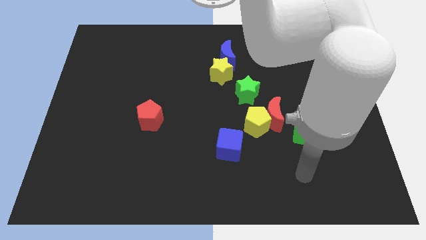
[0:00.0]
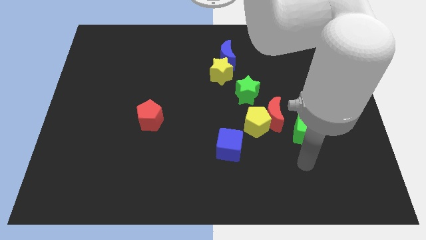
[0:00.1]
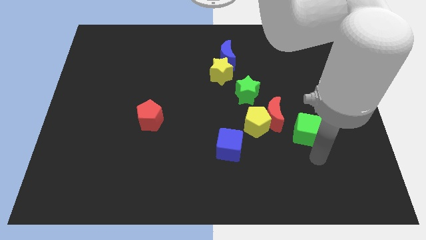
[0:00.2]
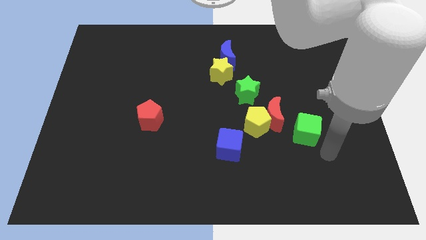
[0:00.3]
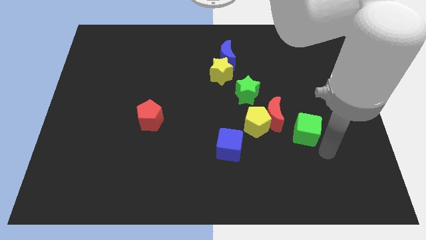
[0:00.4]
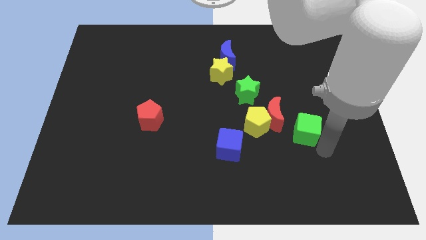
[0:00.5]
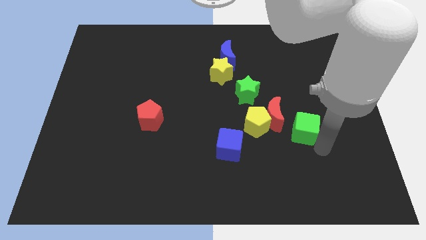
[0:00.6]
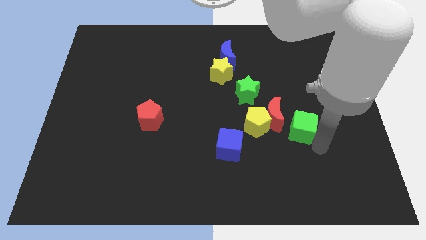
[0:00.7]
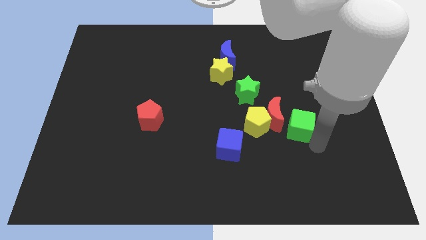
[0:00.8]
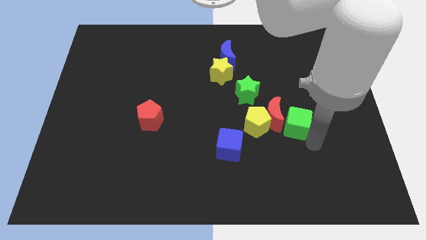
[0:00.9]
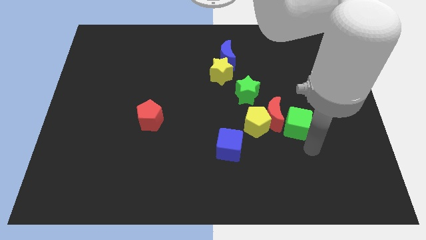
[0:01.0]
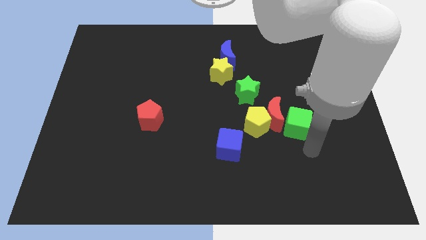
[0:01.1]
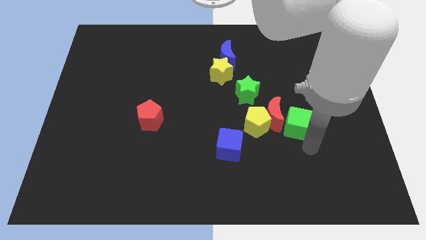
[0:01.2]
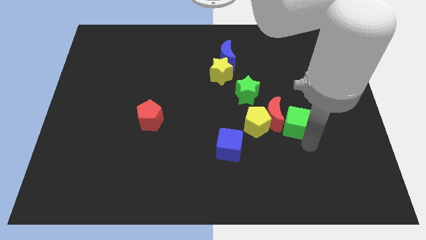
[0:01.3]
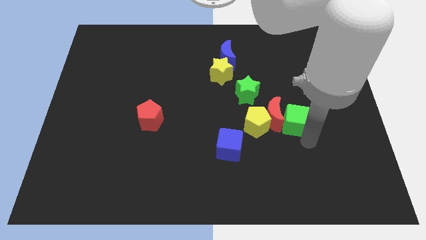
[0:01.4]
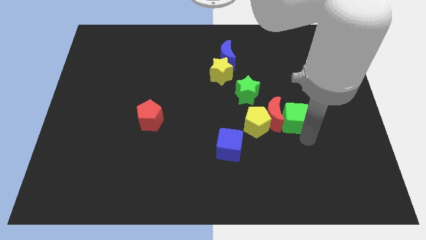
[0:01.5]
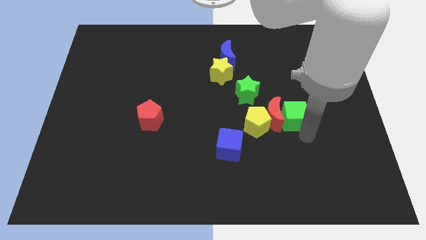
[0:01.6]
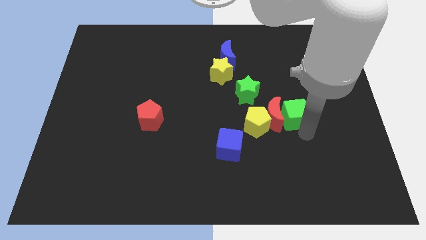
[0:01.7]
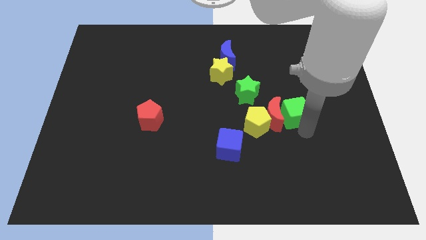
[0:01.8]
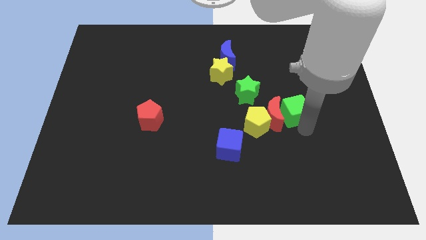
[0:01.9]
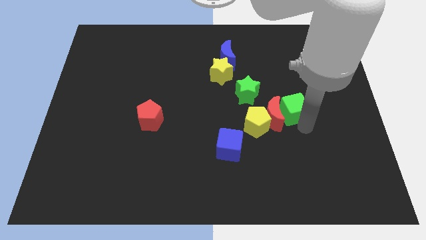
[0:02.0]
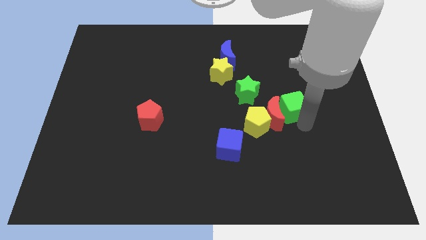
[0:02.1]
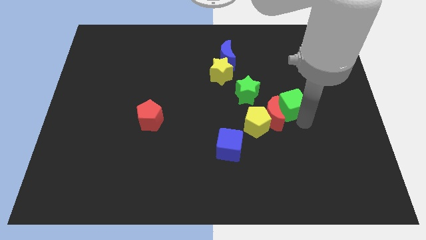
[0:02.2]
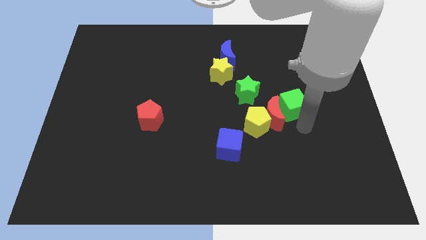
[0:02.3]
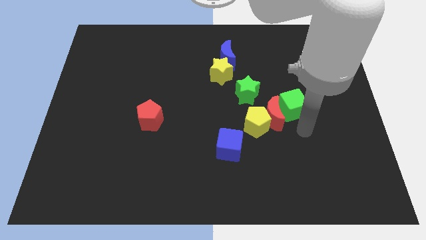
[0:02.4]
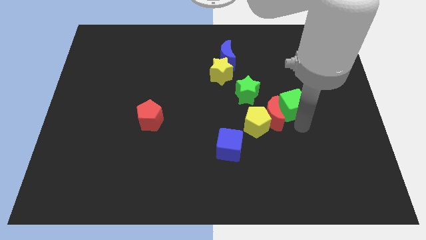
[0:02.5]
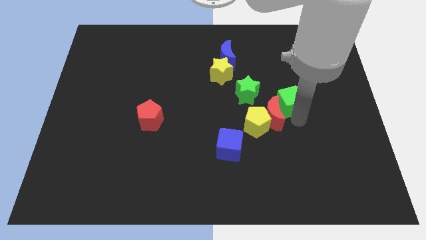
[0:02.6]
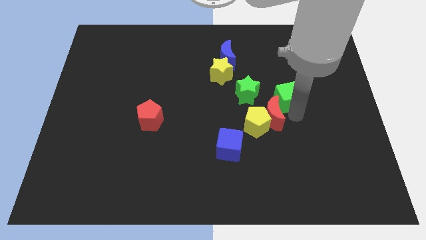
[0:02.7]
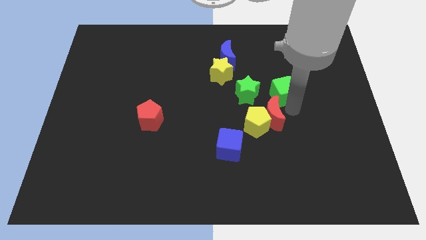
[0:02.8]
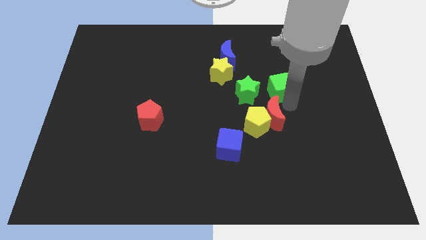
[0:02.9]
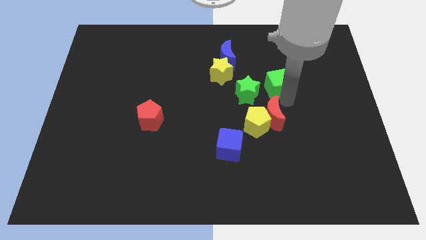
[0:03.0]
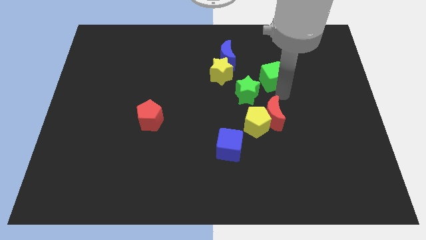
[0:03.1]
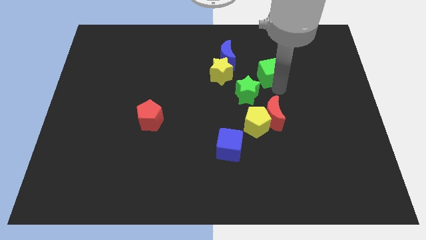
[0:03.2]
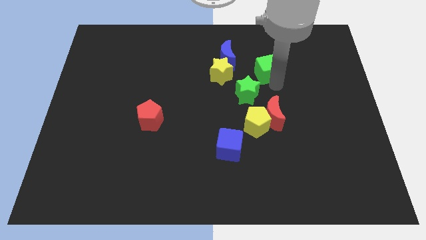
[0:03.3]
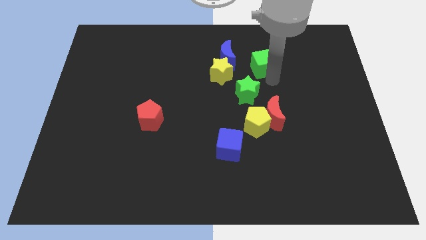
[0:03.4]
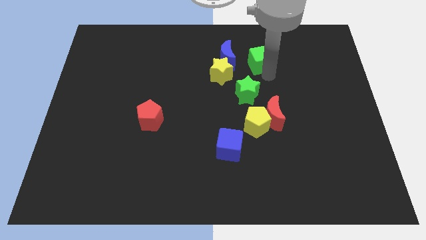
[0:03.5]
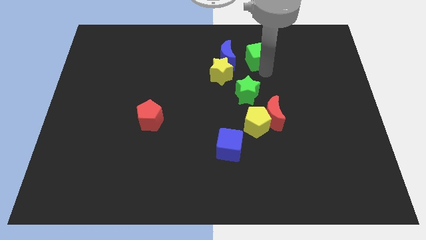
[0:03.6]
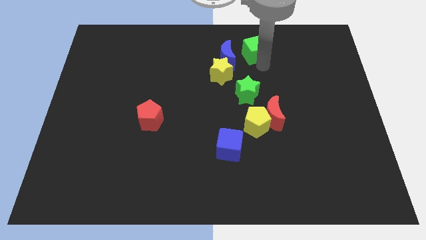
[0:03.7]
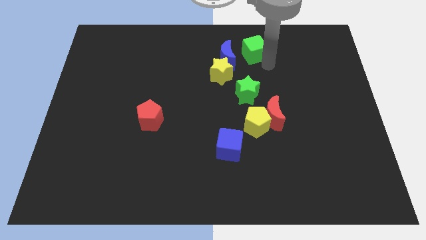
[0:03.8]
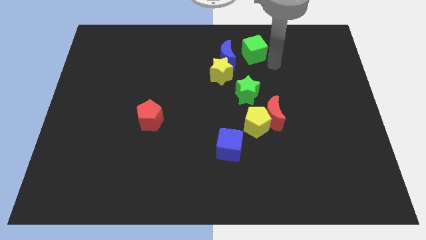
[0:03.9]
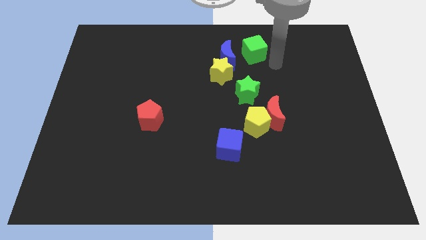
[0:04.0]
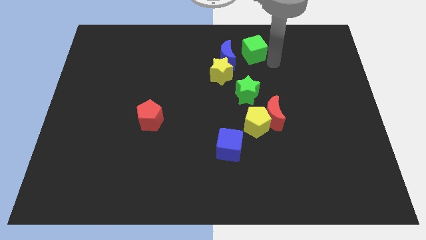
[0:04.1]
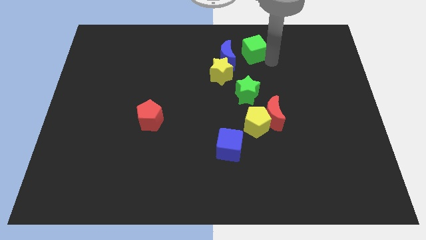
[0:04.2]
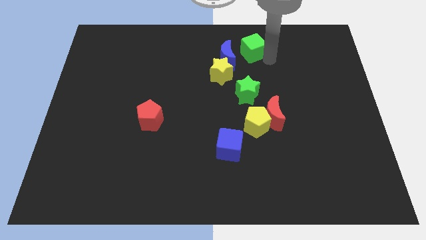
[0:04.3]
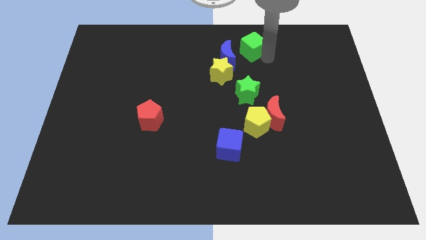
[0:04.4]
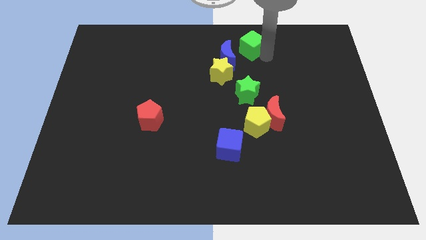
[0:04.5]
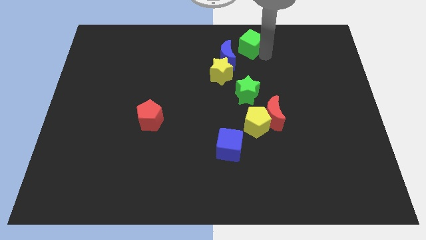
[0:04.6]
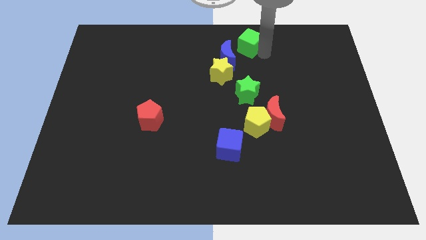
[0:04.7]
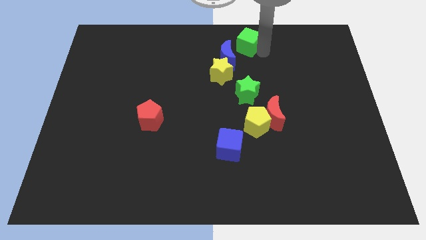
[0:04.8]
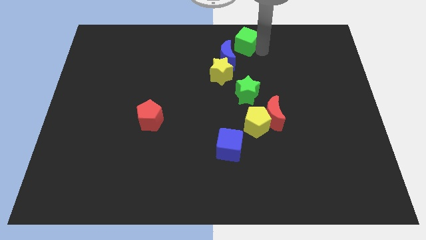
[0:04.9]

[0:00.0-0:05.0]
move the green cube up and to the left diagonally

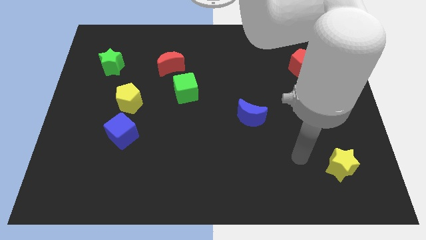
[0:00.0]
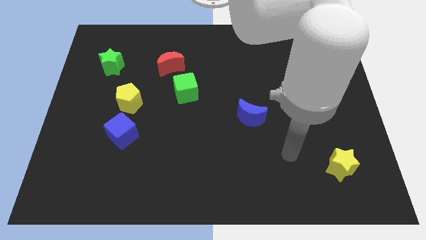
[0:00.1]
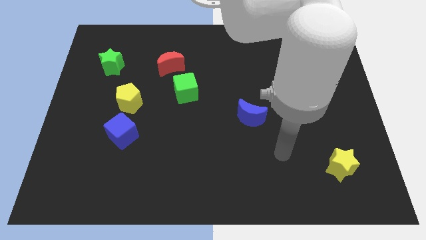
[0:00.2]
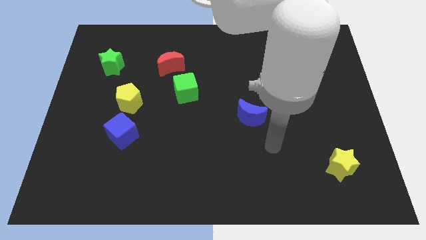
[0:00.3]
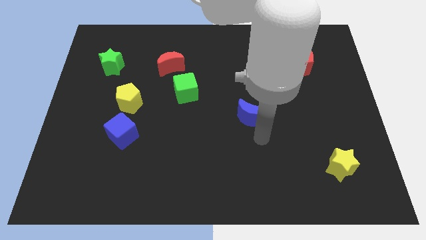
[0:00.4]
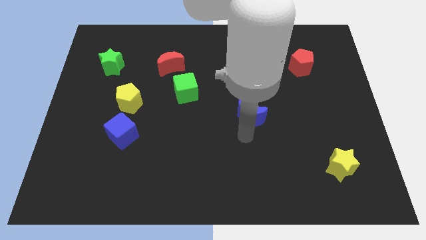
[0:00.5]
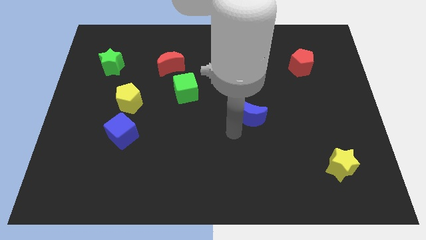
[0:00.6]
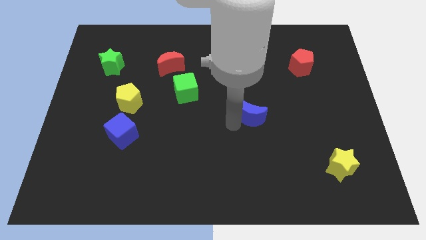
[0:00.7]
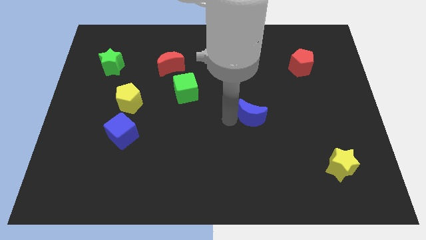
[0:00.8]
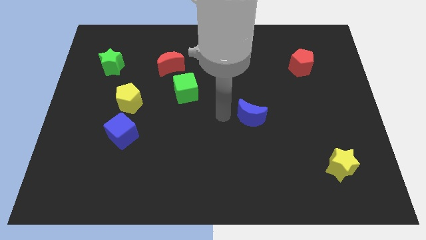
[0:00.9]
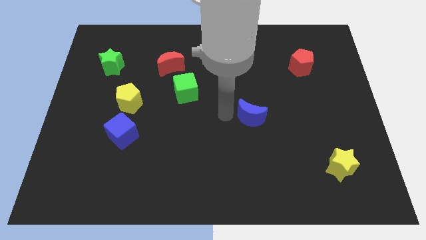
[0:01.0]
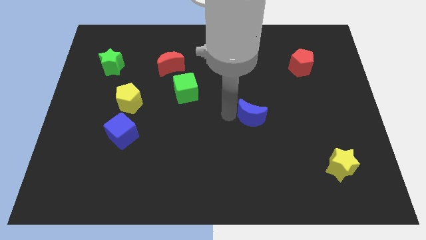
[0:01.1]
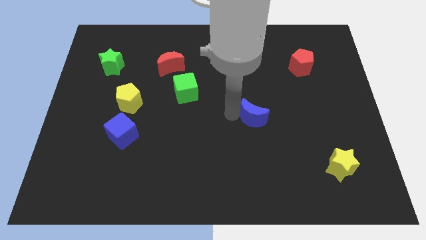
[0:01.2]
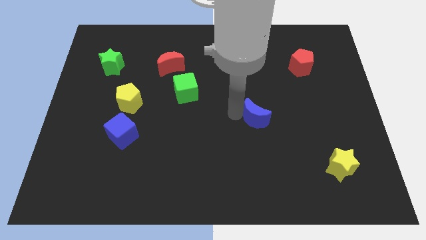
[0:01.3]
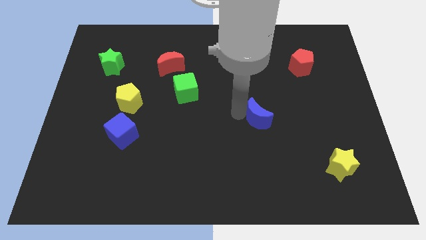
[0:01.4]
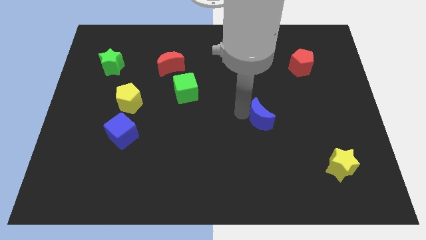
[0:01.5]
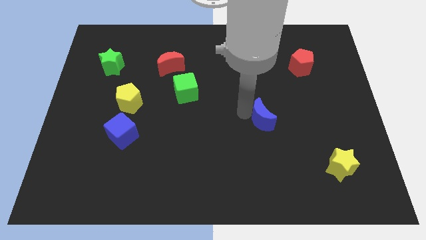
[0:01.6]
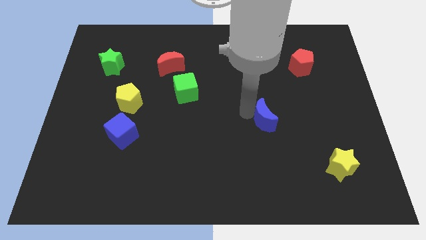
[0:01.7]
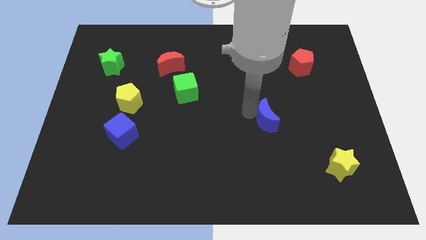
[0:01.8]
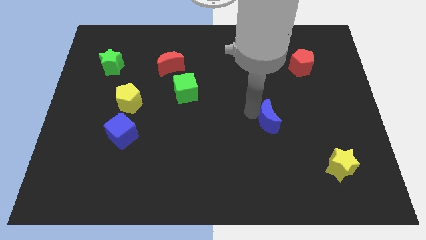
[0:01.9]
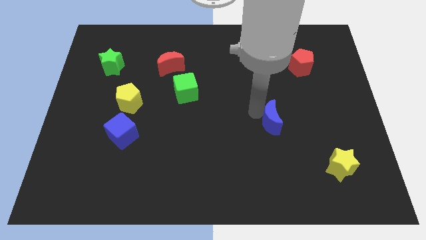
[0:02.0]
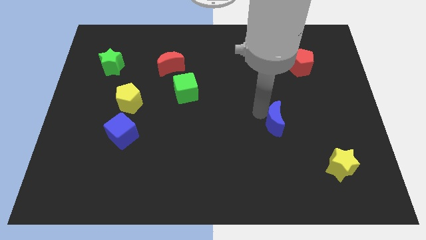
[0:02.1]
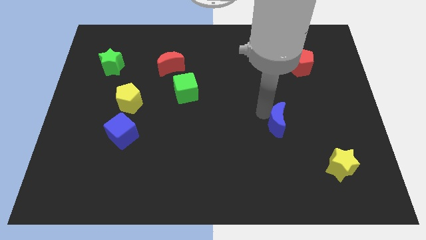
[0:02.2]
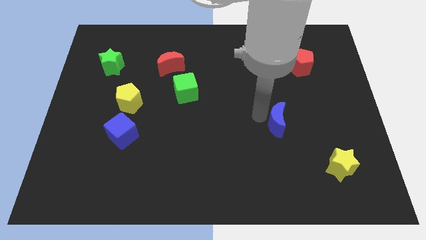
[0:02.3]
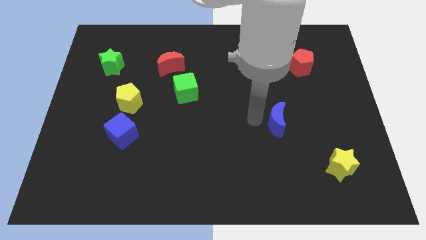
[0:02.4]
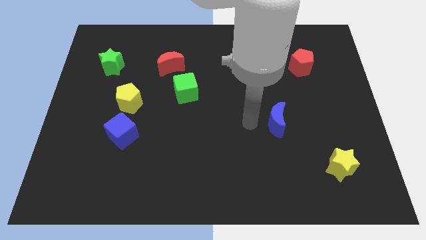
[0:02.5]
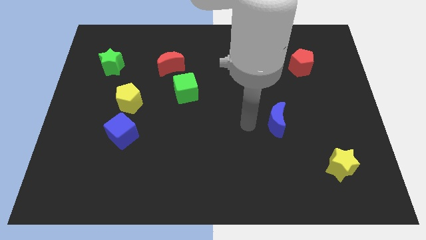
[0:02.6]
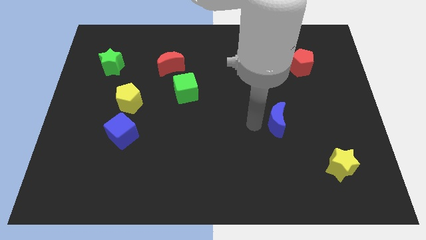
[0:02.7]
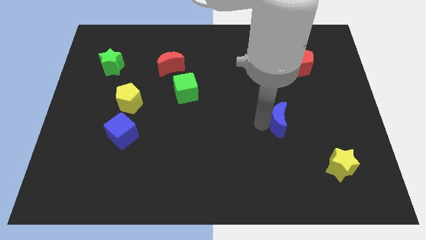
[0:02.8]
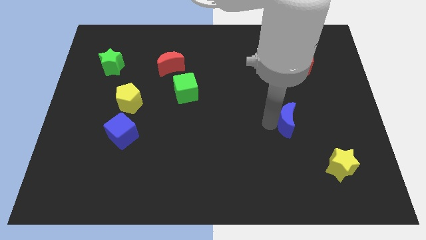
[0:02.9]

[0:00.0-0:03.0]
move the blue moon right a bit
